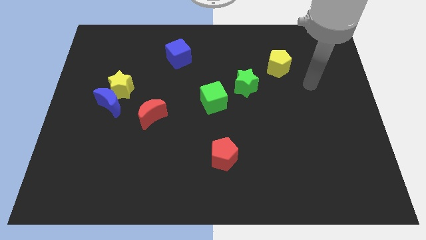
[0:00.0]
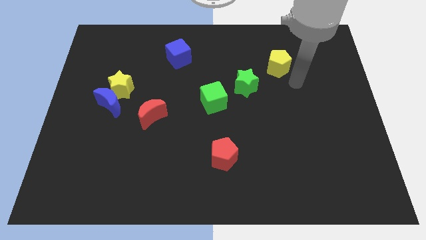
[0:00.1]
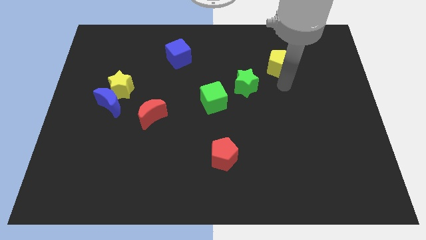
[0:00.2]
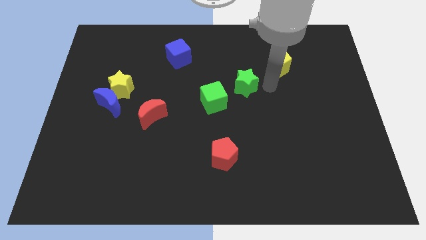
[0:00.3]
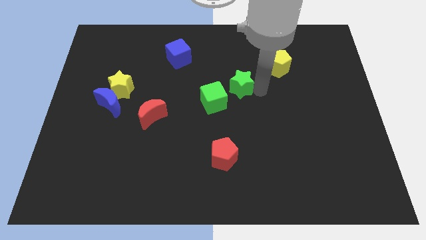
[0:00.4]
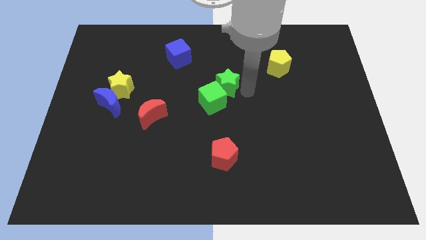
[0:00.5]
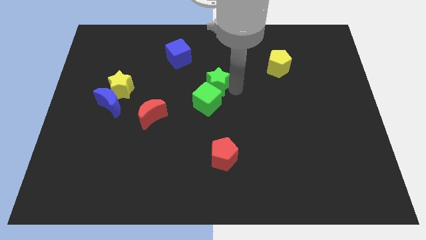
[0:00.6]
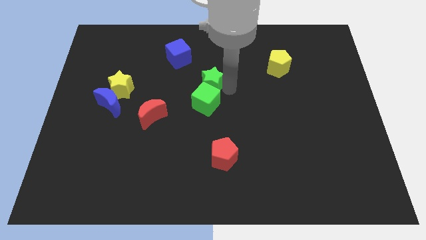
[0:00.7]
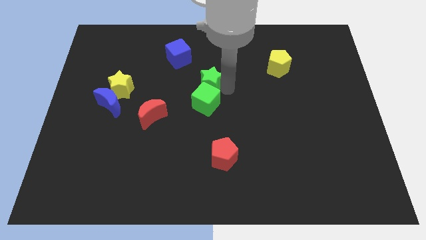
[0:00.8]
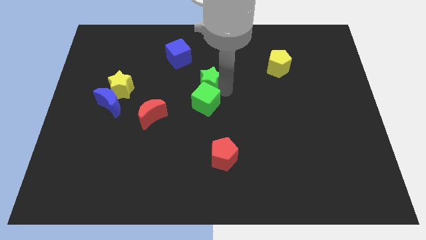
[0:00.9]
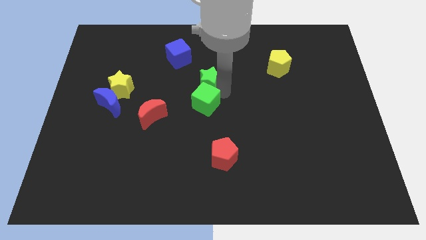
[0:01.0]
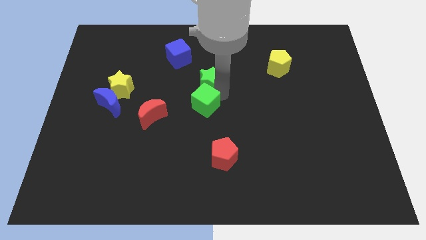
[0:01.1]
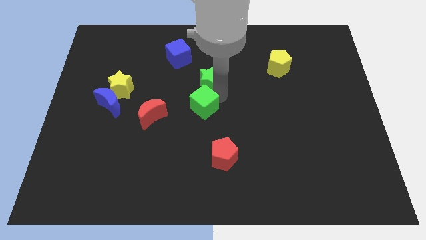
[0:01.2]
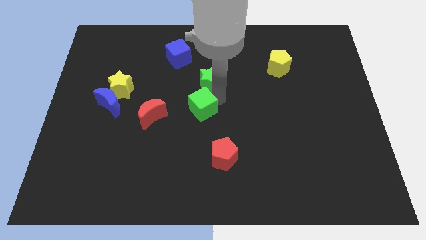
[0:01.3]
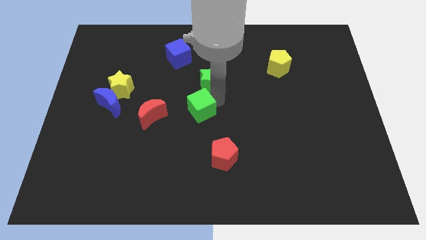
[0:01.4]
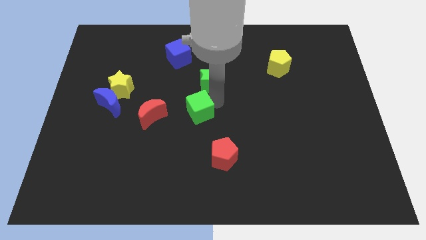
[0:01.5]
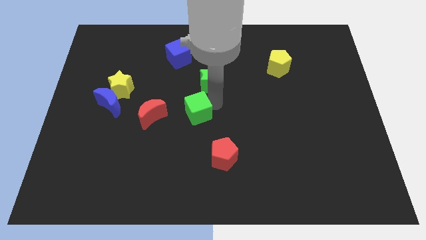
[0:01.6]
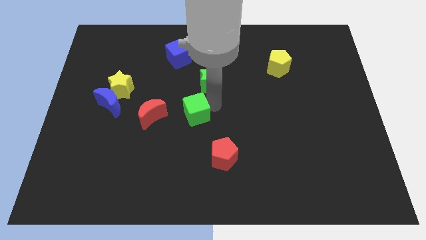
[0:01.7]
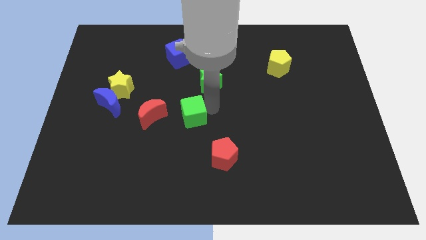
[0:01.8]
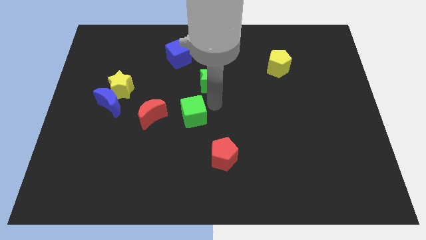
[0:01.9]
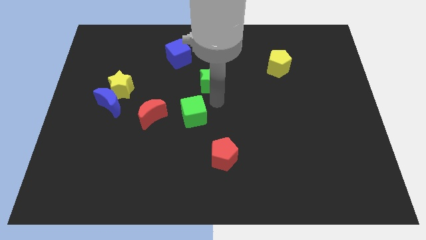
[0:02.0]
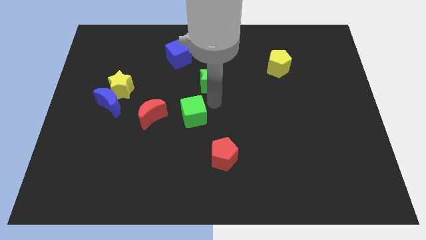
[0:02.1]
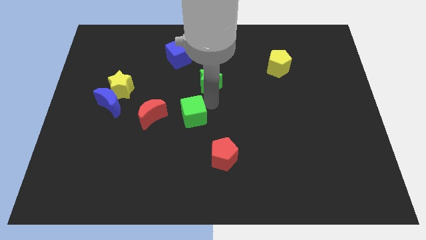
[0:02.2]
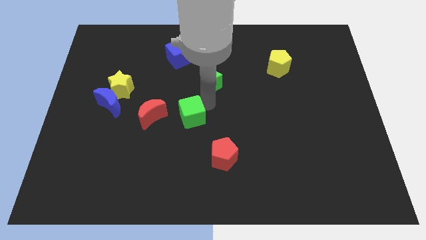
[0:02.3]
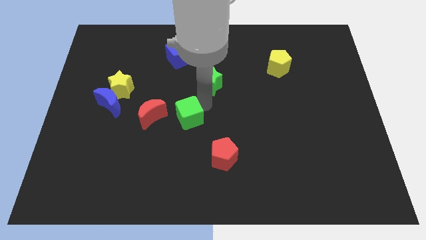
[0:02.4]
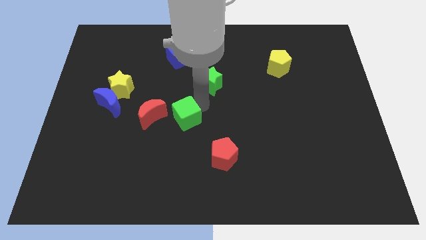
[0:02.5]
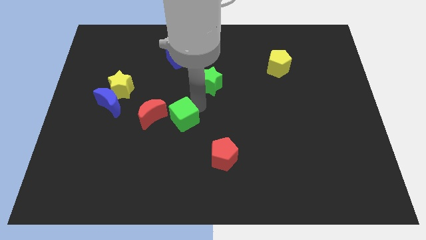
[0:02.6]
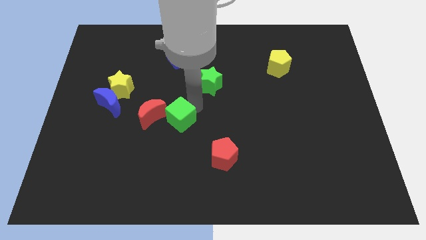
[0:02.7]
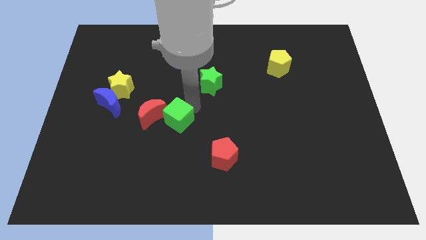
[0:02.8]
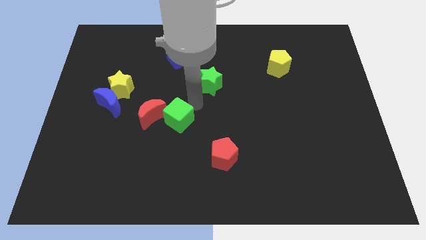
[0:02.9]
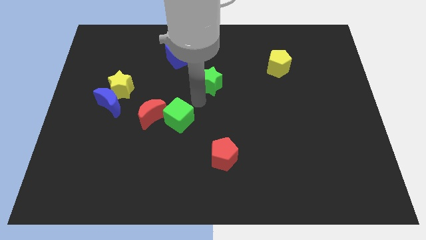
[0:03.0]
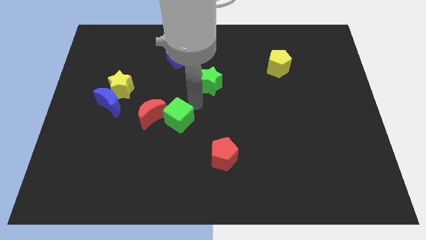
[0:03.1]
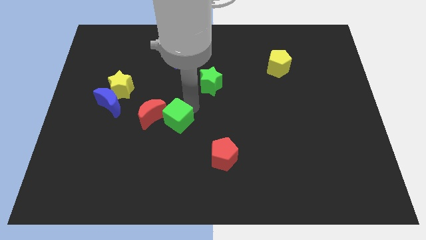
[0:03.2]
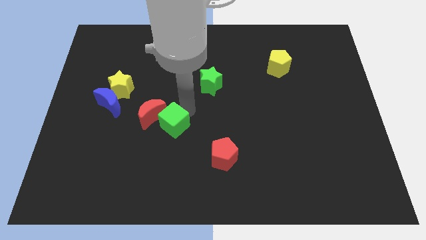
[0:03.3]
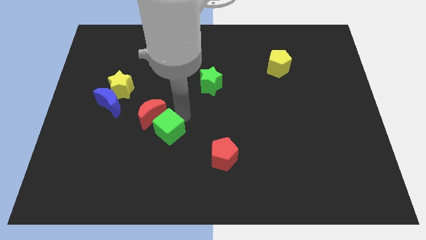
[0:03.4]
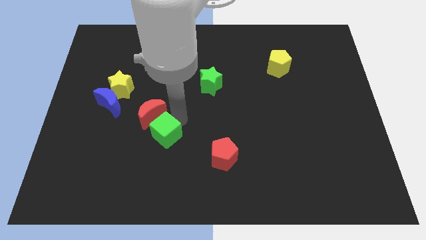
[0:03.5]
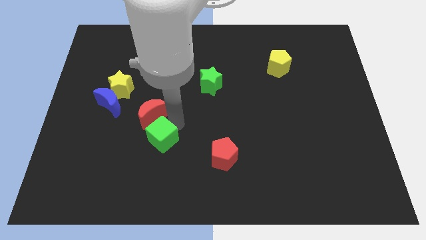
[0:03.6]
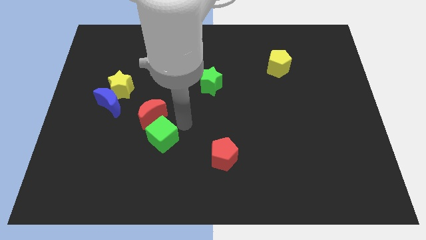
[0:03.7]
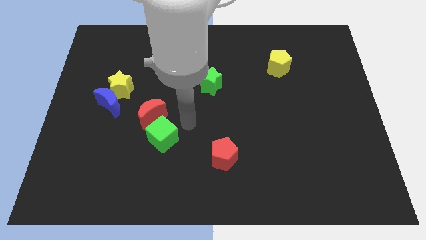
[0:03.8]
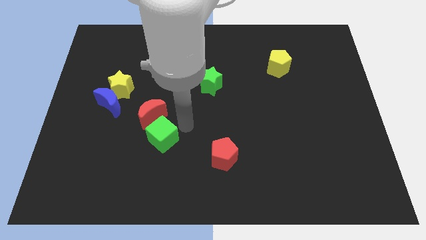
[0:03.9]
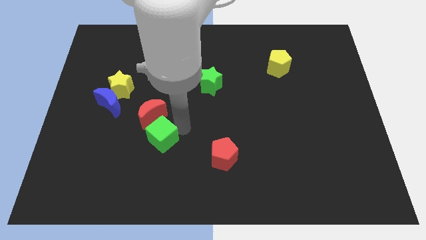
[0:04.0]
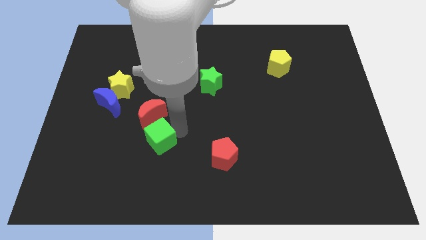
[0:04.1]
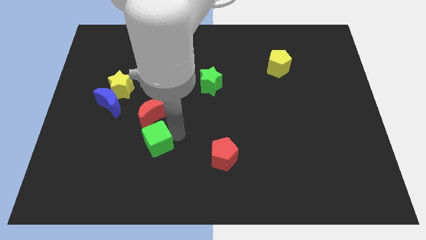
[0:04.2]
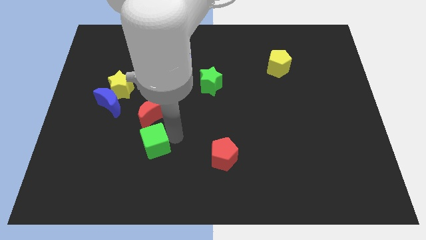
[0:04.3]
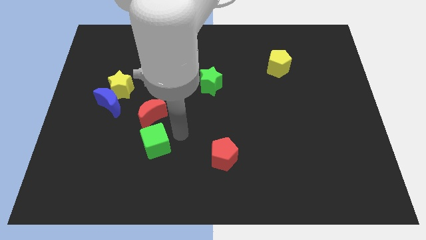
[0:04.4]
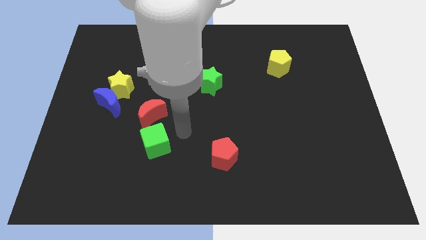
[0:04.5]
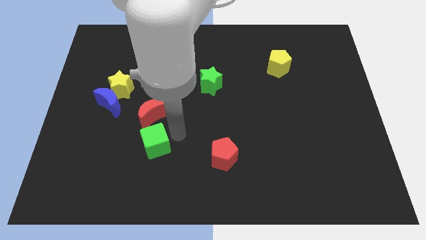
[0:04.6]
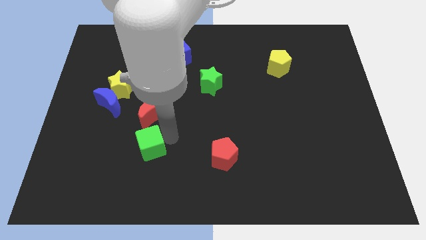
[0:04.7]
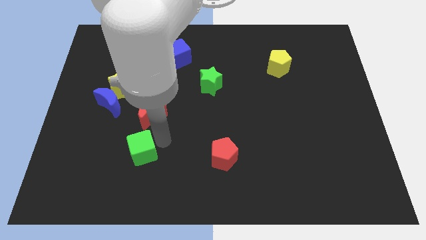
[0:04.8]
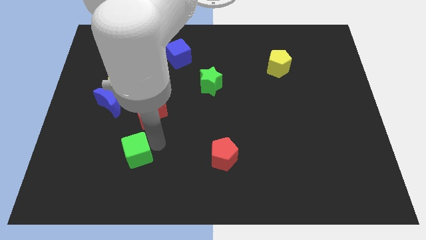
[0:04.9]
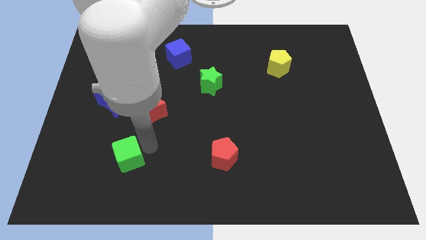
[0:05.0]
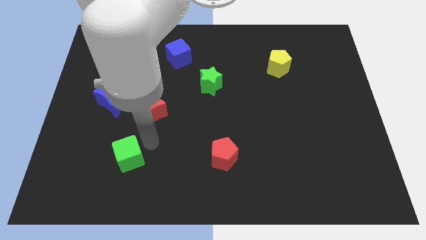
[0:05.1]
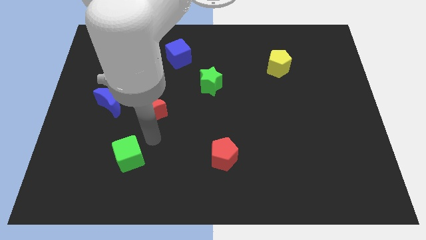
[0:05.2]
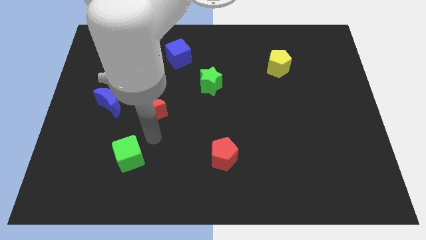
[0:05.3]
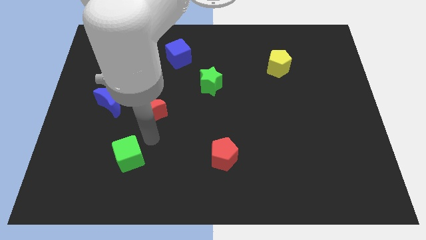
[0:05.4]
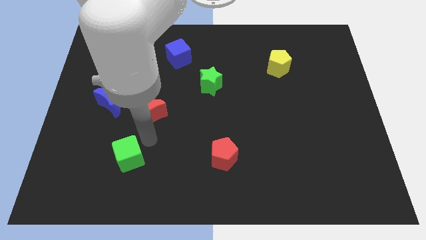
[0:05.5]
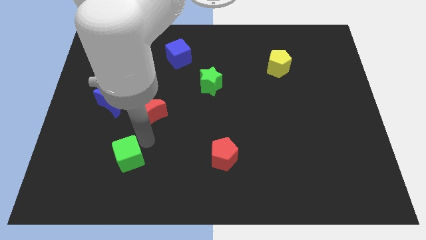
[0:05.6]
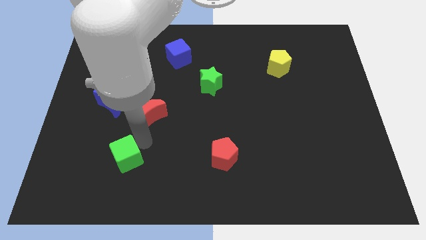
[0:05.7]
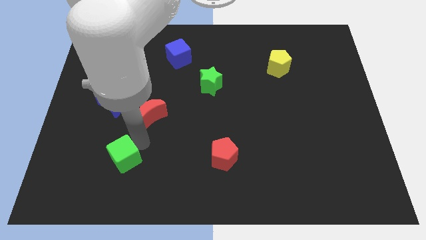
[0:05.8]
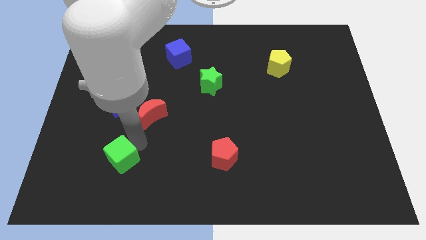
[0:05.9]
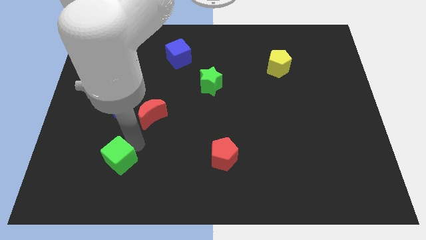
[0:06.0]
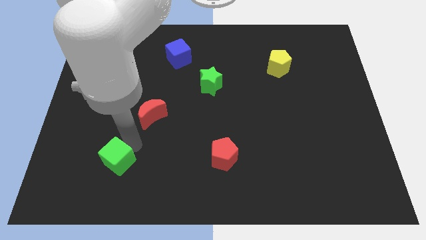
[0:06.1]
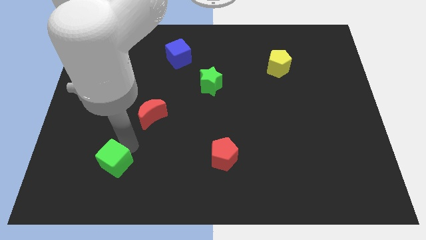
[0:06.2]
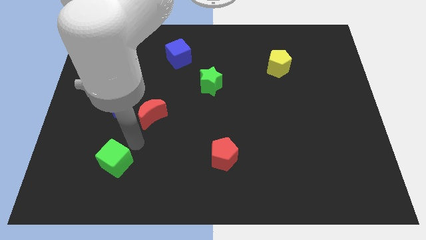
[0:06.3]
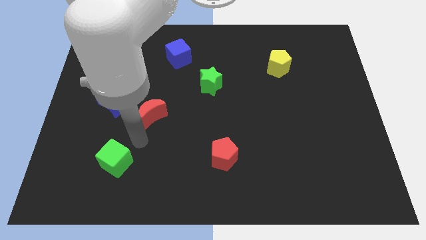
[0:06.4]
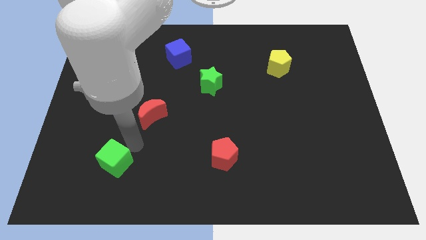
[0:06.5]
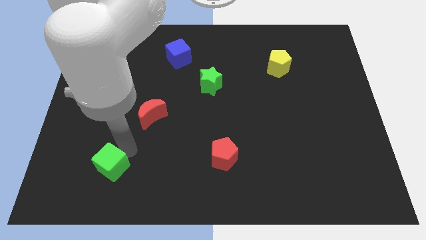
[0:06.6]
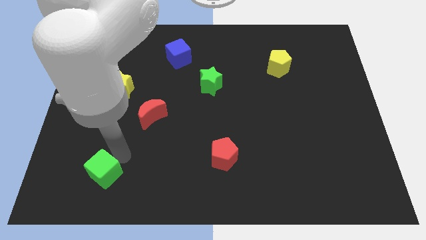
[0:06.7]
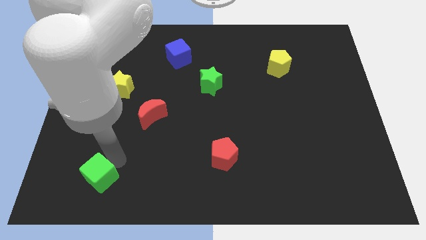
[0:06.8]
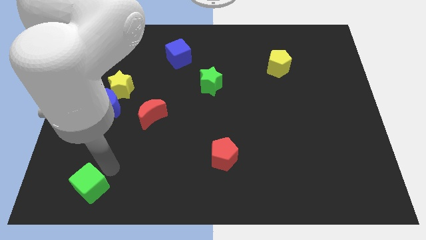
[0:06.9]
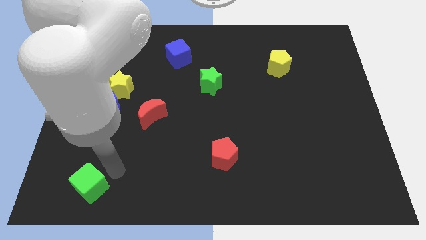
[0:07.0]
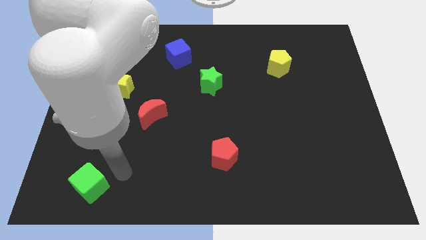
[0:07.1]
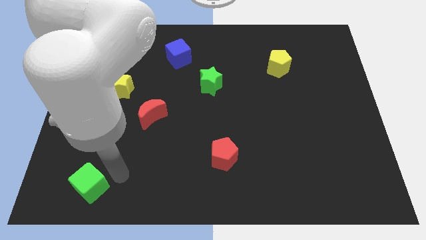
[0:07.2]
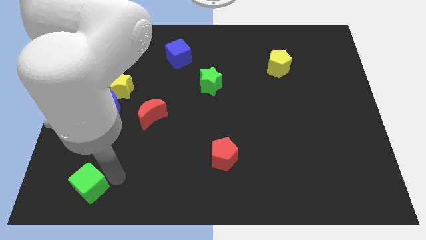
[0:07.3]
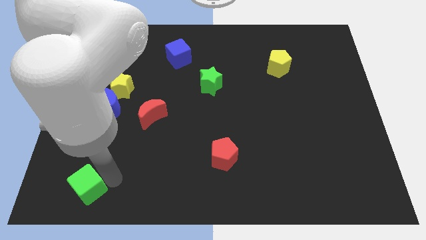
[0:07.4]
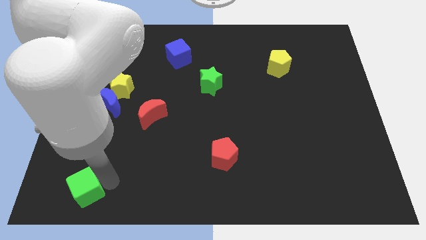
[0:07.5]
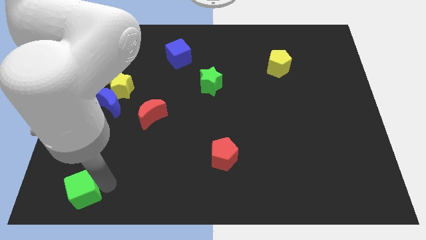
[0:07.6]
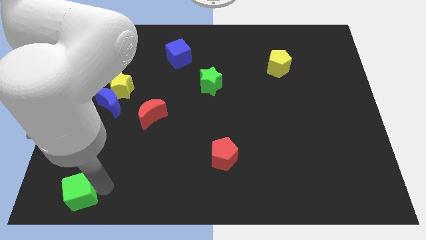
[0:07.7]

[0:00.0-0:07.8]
move the green cube to the bottom left of the board
